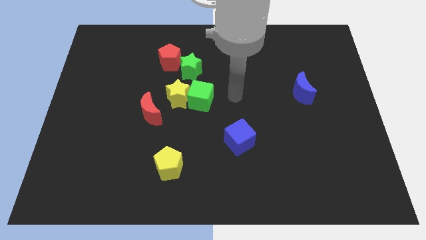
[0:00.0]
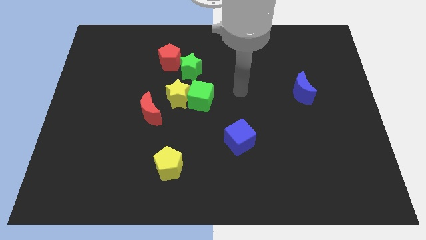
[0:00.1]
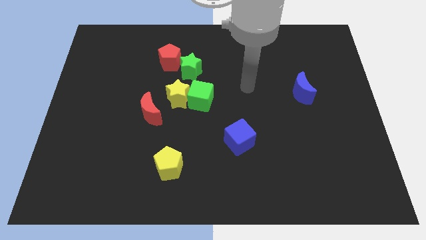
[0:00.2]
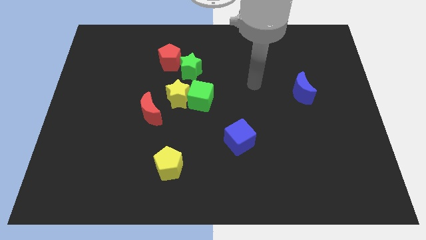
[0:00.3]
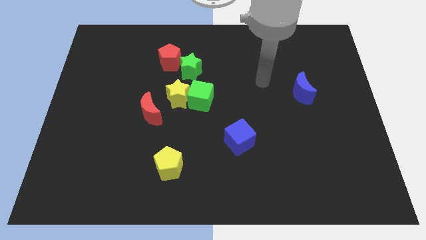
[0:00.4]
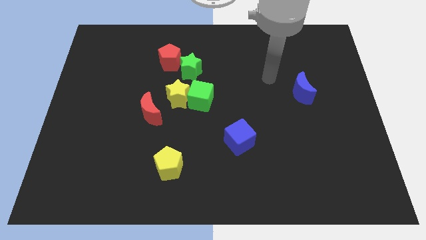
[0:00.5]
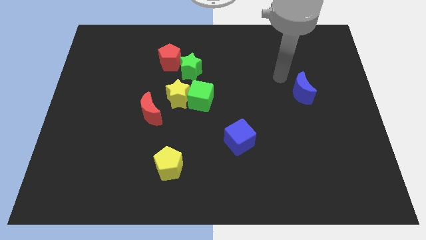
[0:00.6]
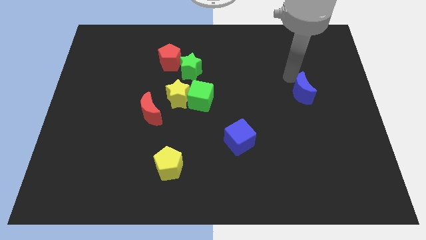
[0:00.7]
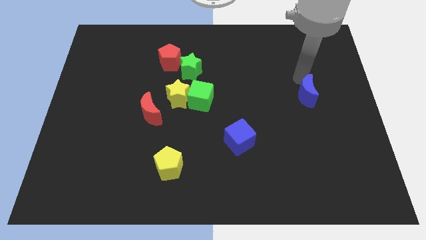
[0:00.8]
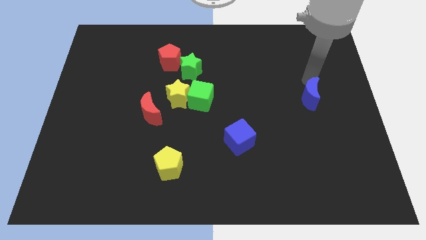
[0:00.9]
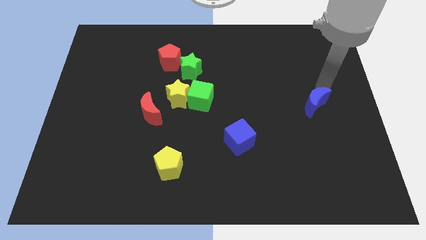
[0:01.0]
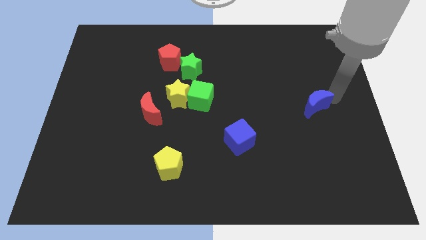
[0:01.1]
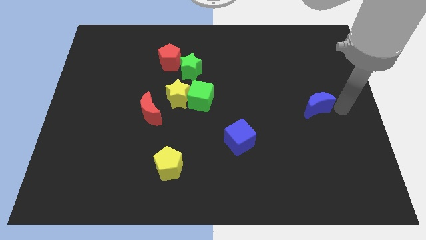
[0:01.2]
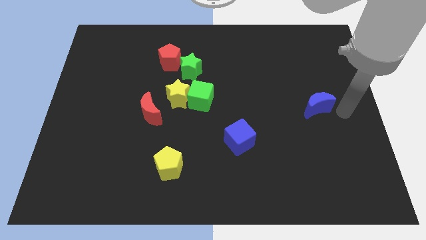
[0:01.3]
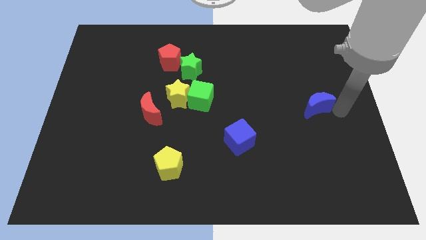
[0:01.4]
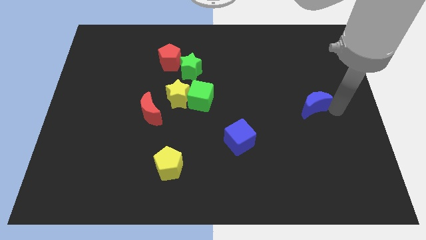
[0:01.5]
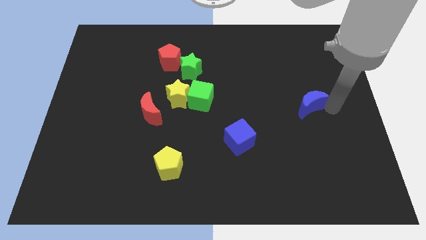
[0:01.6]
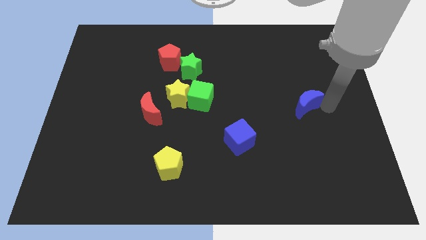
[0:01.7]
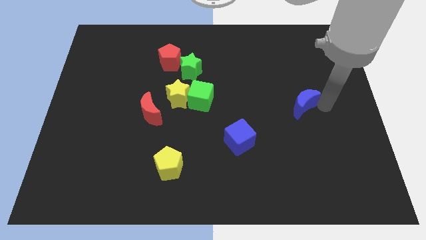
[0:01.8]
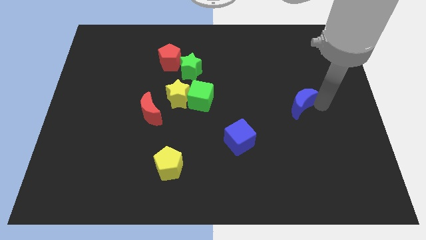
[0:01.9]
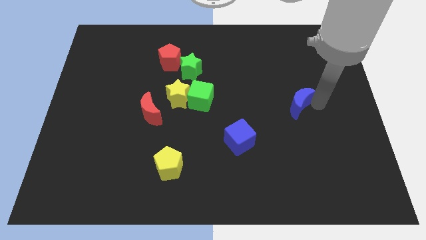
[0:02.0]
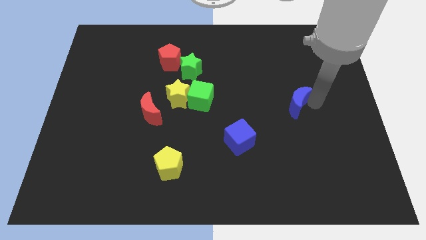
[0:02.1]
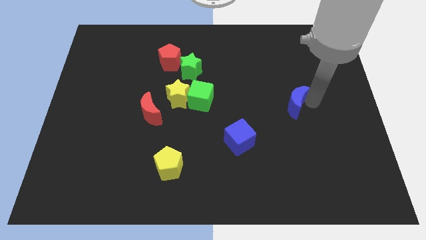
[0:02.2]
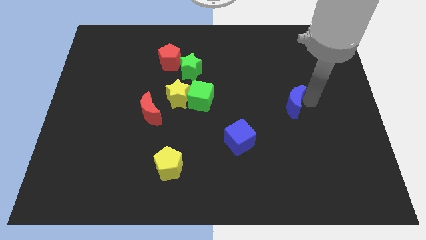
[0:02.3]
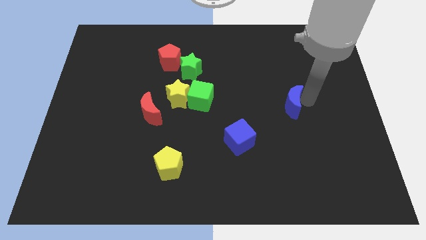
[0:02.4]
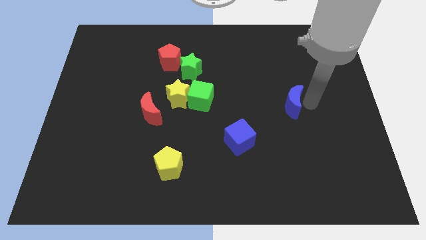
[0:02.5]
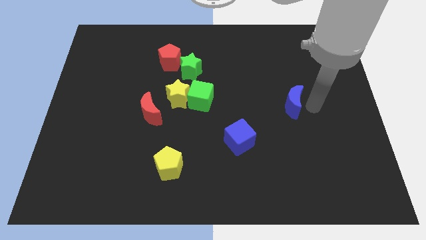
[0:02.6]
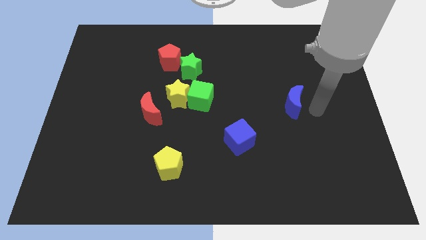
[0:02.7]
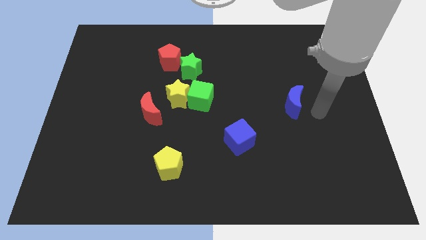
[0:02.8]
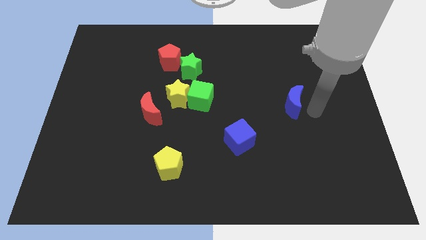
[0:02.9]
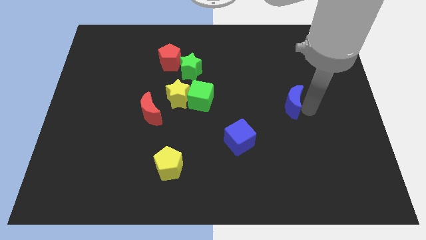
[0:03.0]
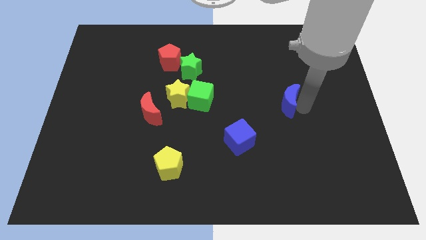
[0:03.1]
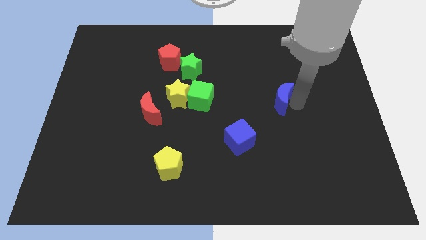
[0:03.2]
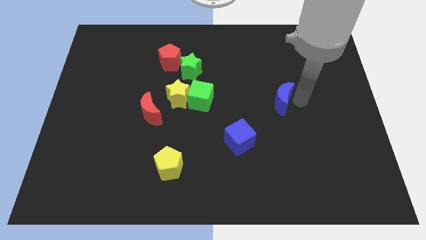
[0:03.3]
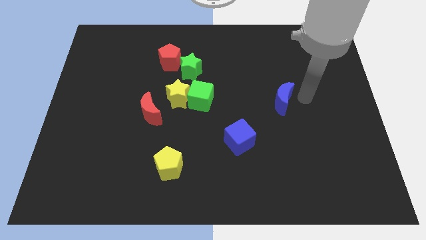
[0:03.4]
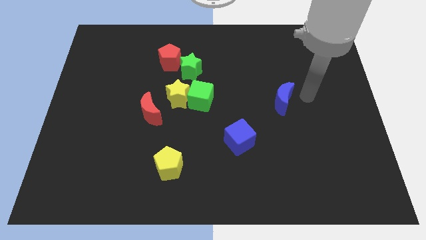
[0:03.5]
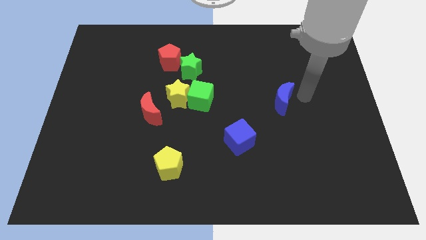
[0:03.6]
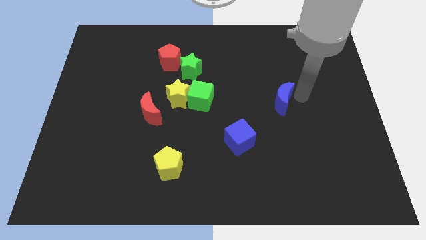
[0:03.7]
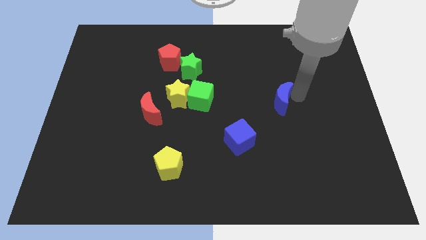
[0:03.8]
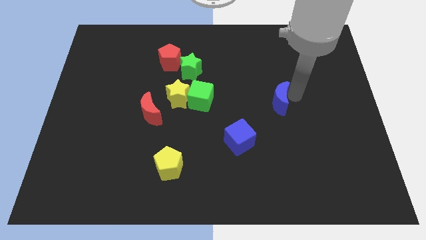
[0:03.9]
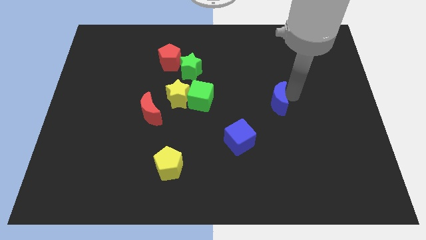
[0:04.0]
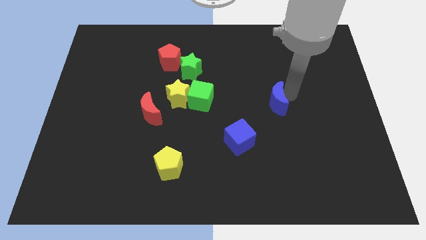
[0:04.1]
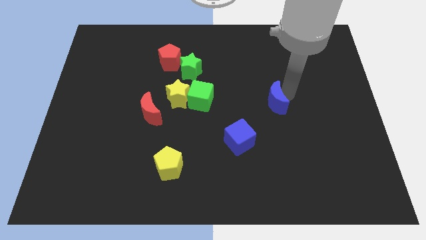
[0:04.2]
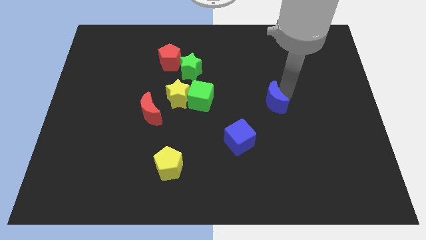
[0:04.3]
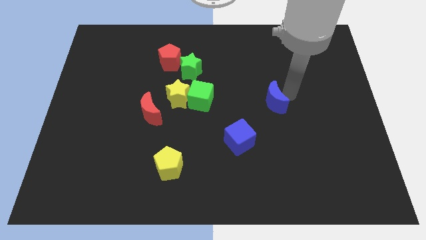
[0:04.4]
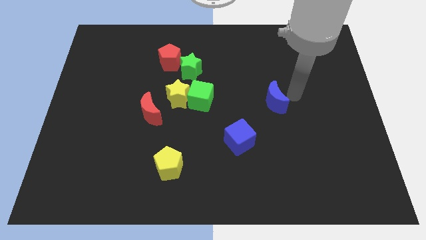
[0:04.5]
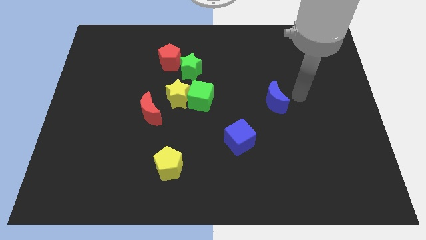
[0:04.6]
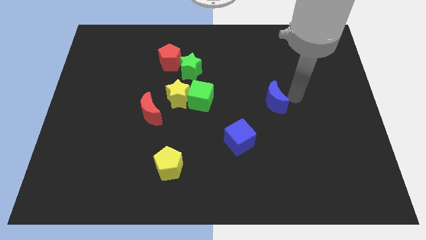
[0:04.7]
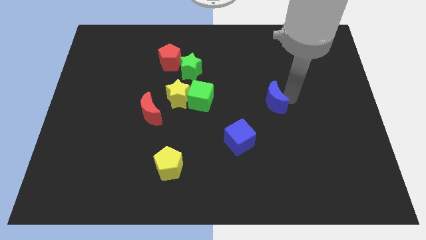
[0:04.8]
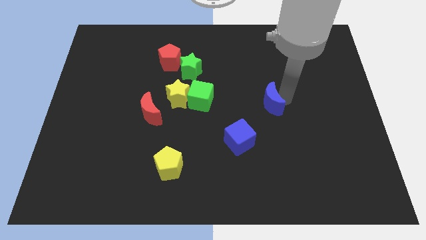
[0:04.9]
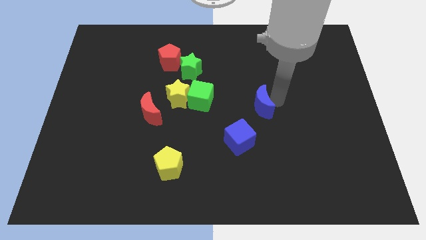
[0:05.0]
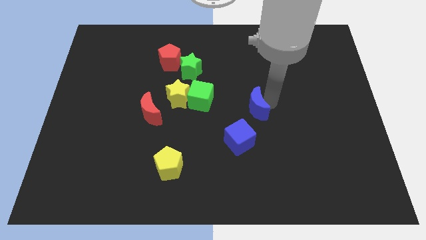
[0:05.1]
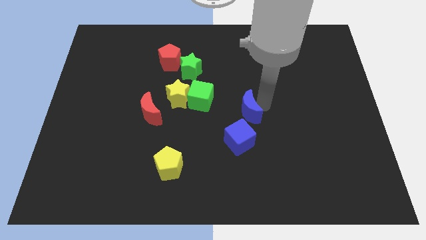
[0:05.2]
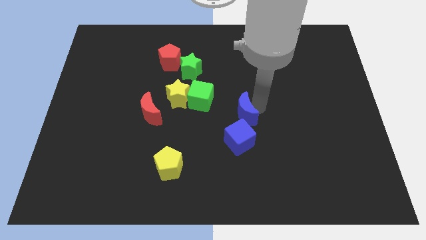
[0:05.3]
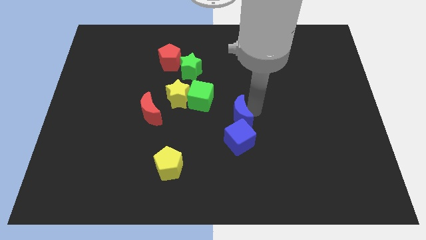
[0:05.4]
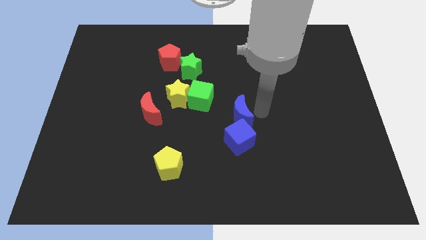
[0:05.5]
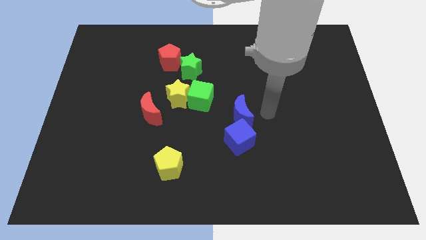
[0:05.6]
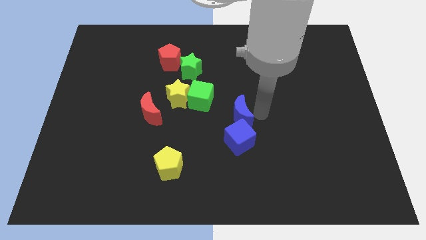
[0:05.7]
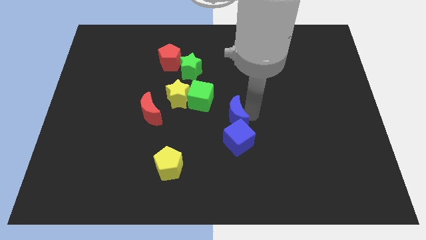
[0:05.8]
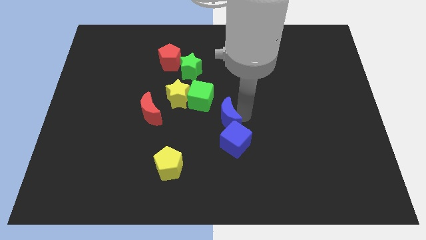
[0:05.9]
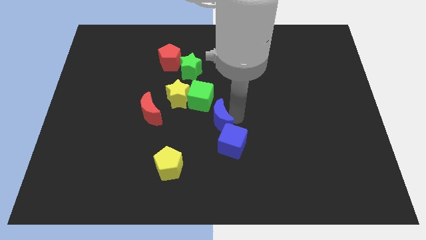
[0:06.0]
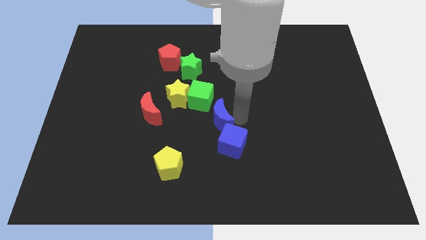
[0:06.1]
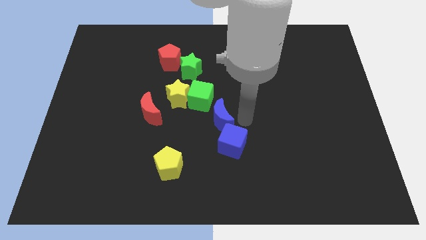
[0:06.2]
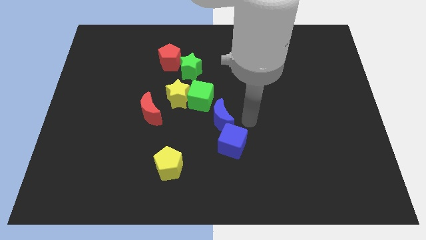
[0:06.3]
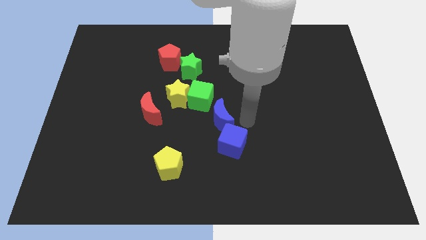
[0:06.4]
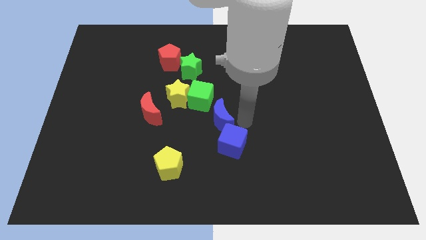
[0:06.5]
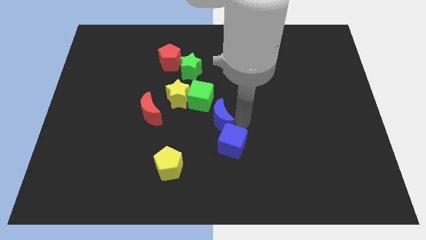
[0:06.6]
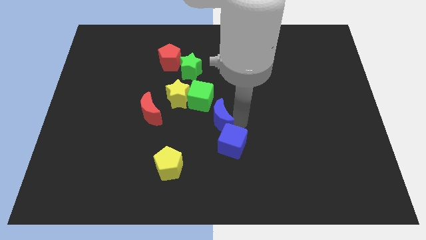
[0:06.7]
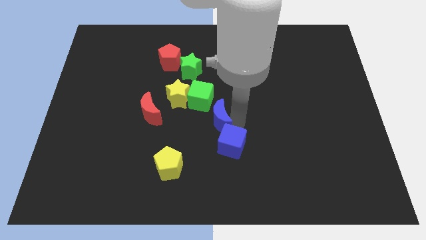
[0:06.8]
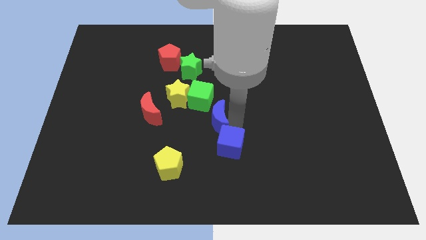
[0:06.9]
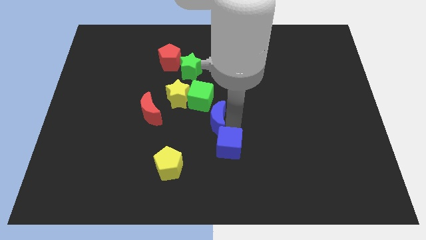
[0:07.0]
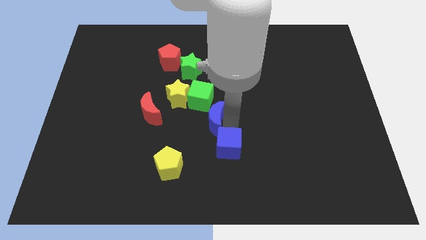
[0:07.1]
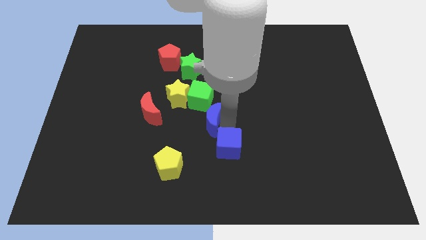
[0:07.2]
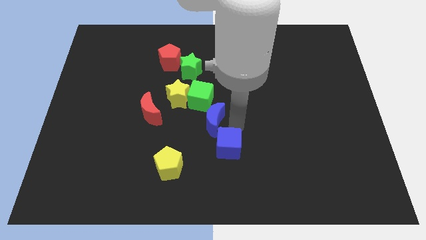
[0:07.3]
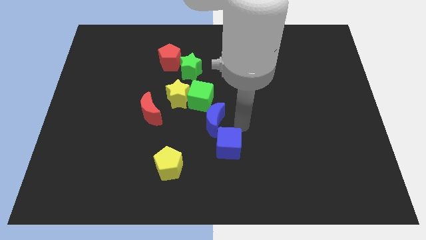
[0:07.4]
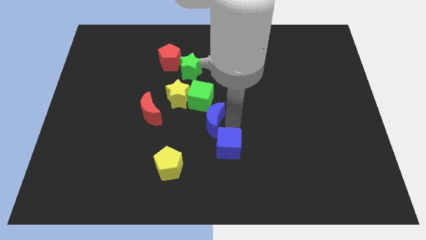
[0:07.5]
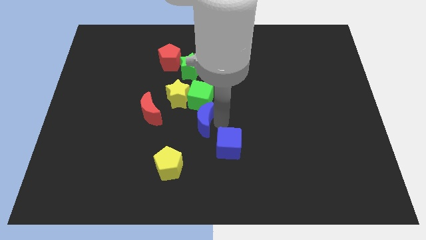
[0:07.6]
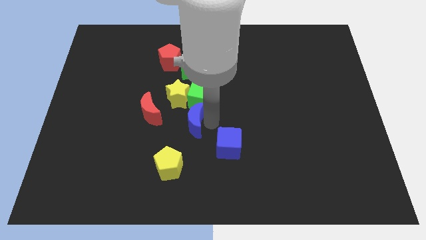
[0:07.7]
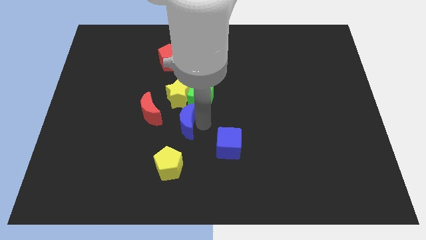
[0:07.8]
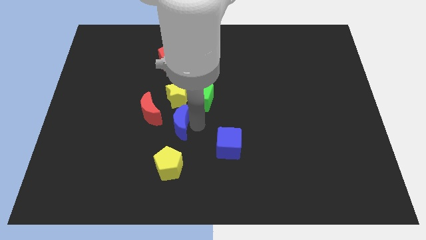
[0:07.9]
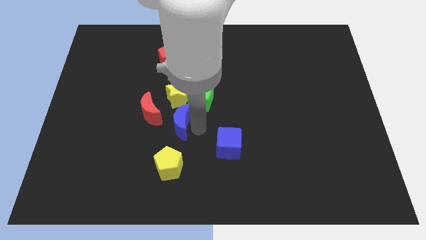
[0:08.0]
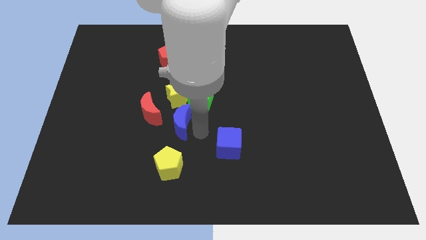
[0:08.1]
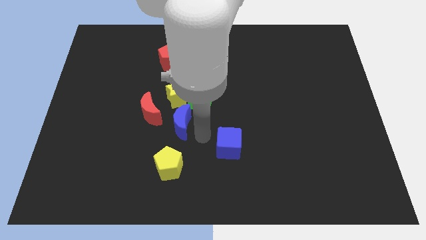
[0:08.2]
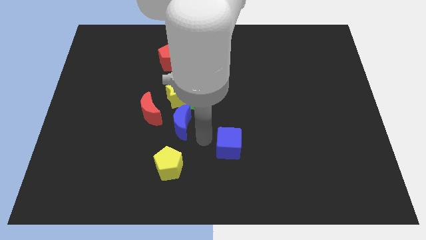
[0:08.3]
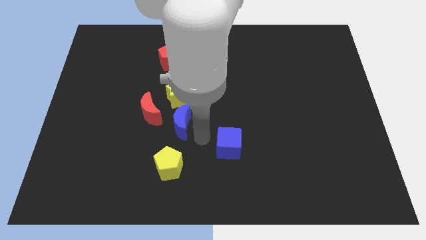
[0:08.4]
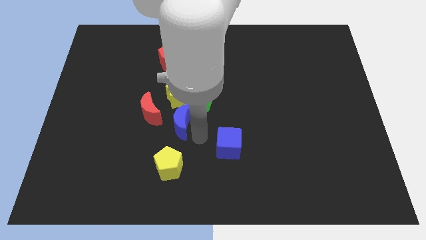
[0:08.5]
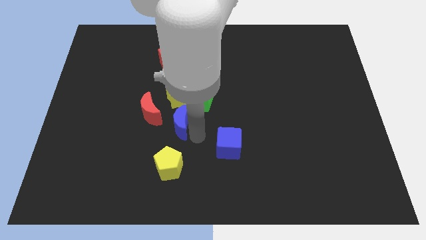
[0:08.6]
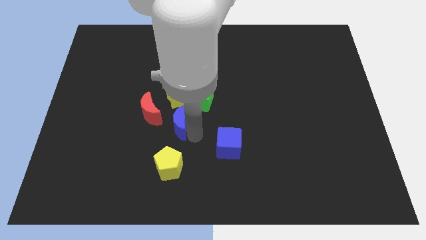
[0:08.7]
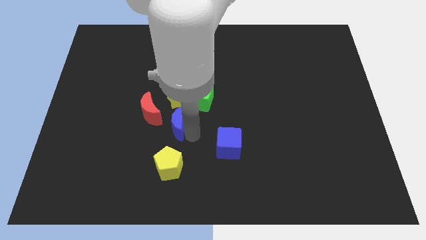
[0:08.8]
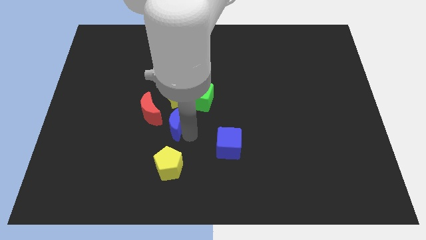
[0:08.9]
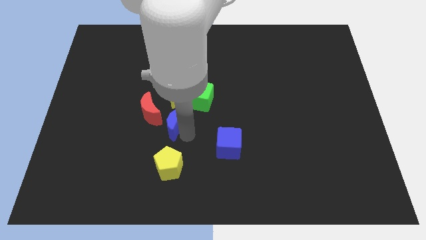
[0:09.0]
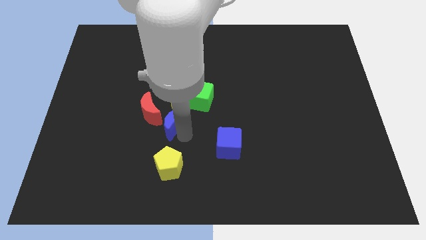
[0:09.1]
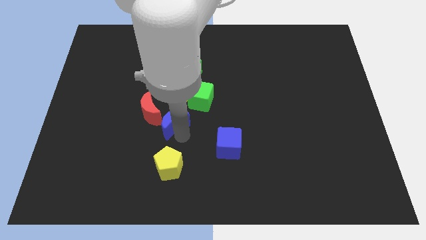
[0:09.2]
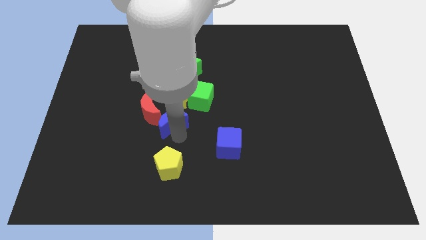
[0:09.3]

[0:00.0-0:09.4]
move the blue moon to the red moon
